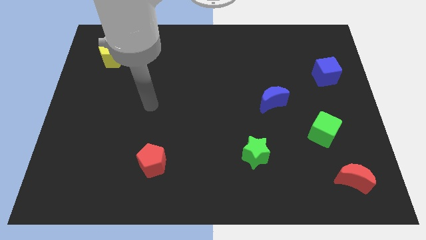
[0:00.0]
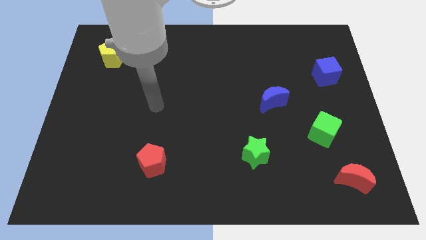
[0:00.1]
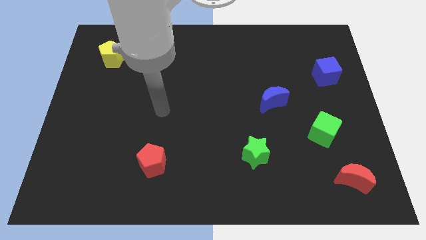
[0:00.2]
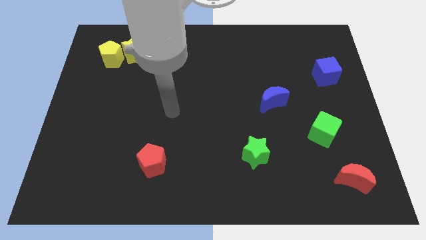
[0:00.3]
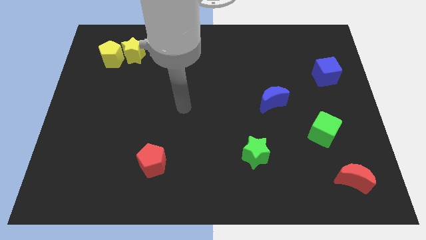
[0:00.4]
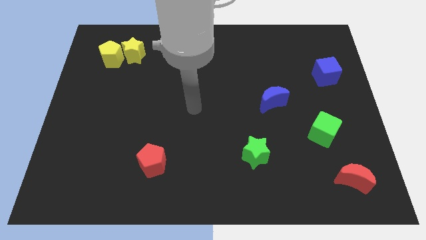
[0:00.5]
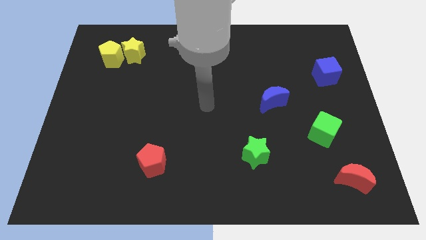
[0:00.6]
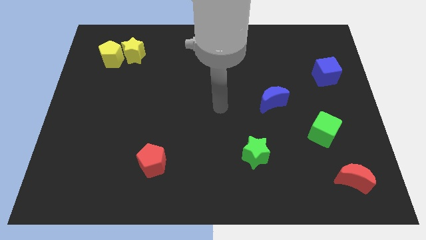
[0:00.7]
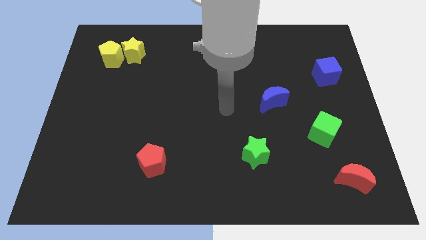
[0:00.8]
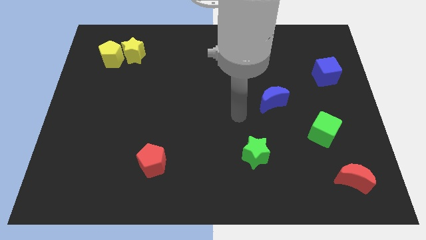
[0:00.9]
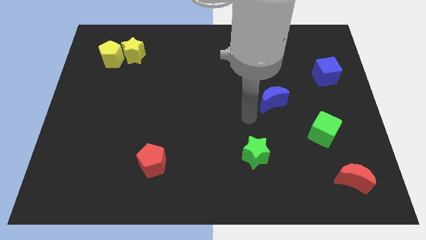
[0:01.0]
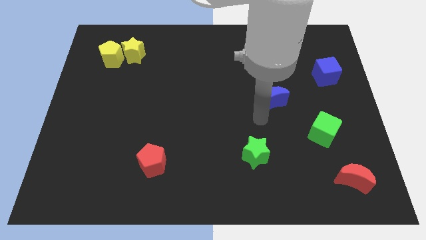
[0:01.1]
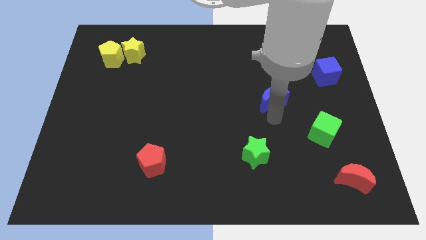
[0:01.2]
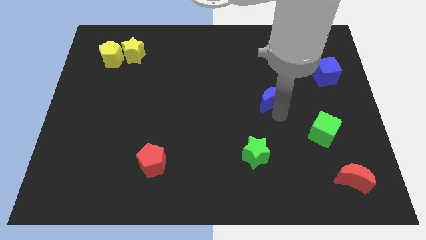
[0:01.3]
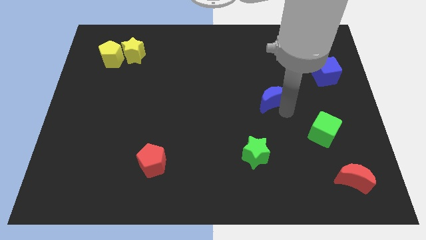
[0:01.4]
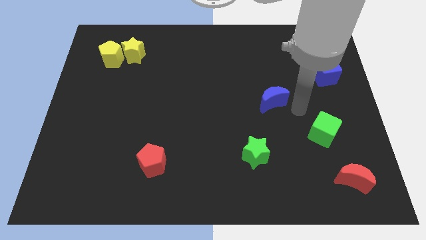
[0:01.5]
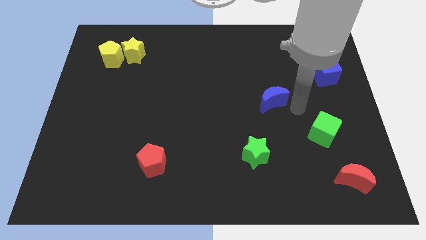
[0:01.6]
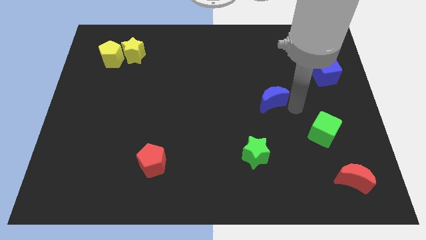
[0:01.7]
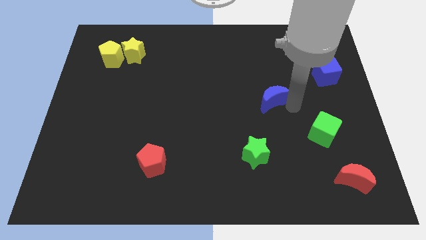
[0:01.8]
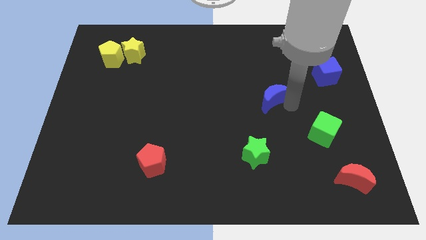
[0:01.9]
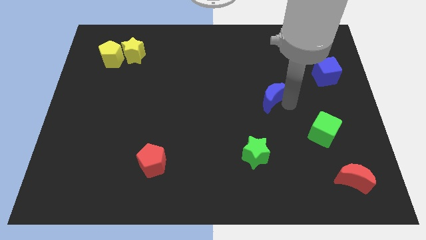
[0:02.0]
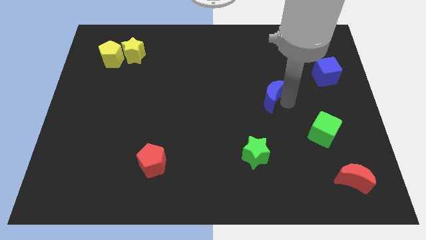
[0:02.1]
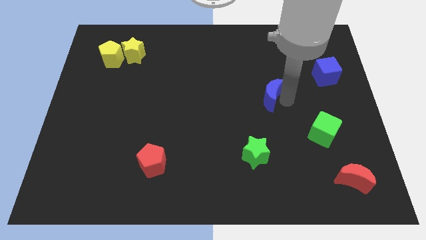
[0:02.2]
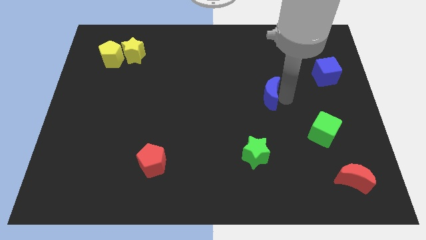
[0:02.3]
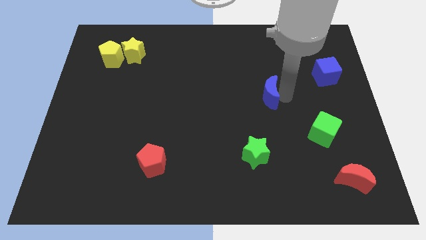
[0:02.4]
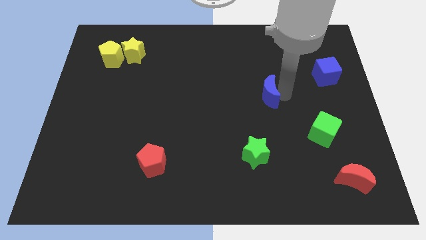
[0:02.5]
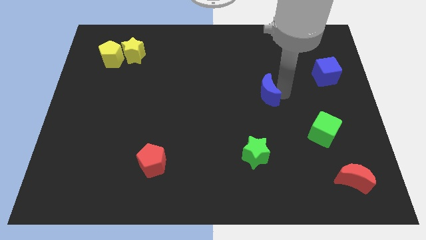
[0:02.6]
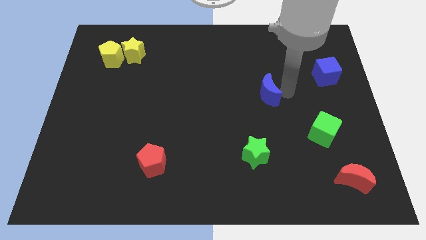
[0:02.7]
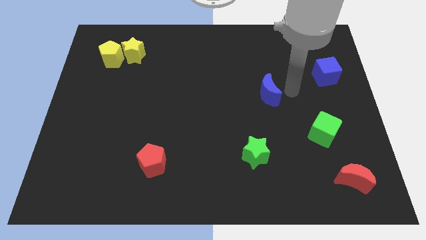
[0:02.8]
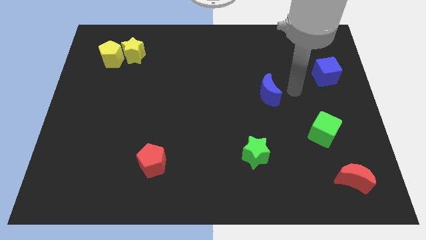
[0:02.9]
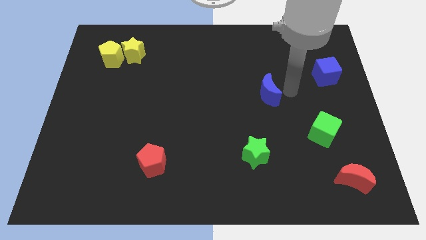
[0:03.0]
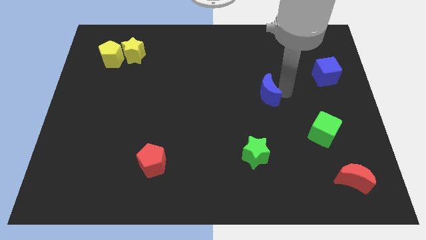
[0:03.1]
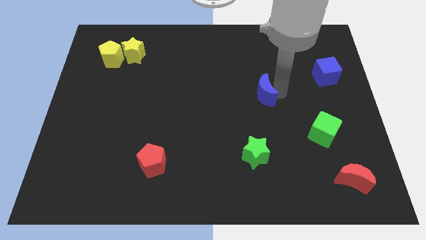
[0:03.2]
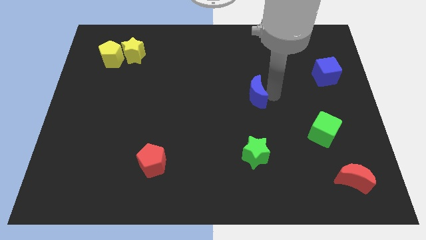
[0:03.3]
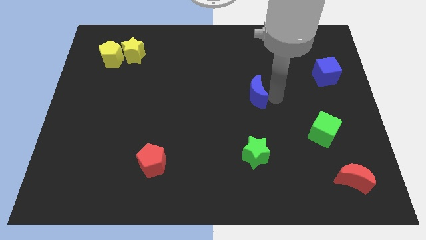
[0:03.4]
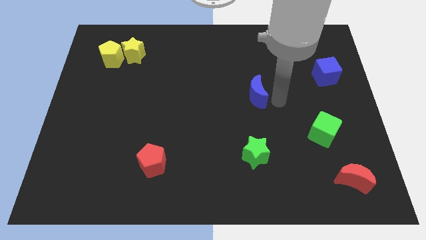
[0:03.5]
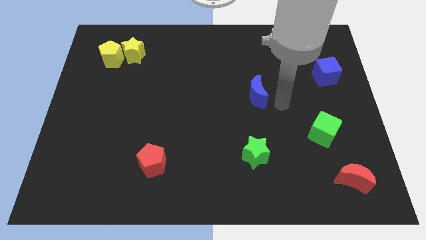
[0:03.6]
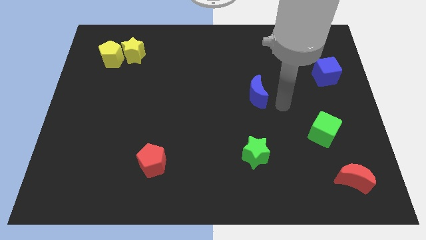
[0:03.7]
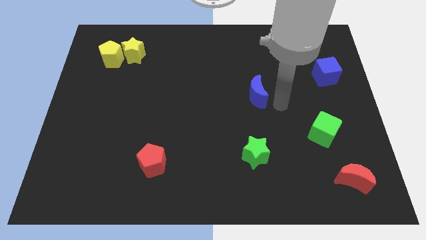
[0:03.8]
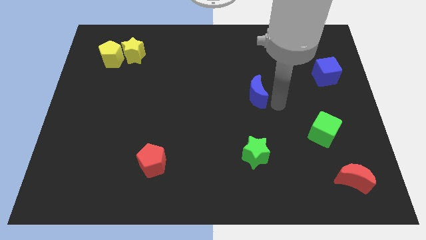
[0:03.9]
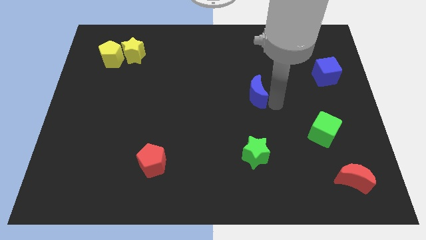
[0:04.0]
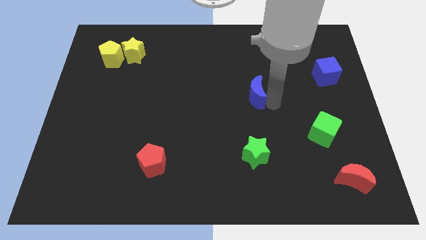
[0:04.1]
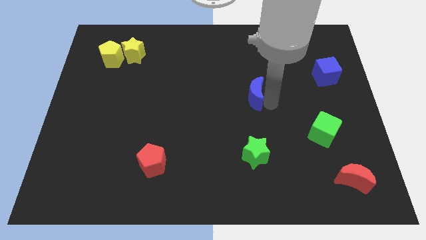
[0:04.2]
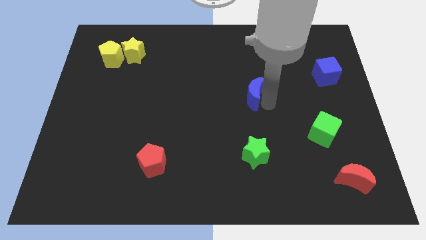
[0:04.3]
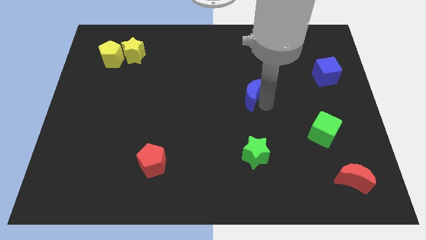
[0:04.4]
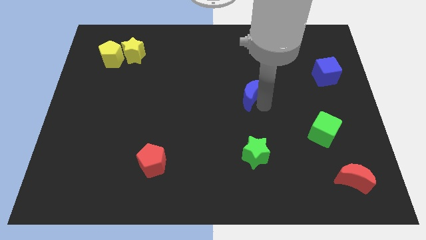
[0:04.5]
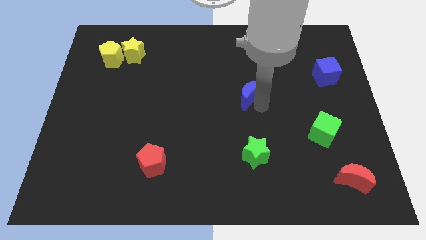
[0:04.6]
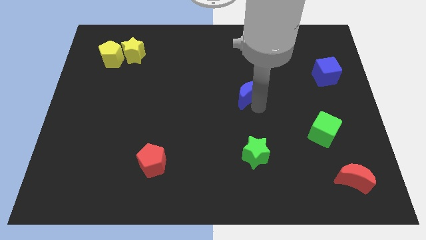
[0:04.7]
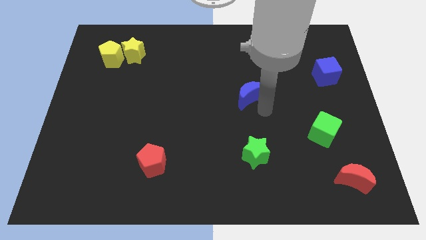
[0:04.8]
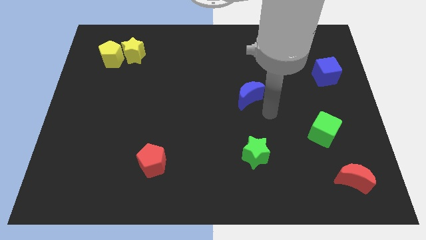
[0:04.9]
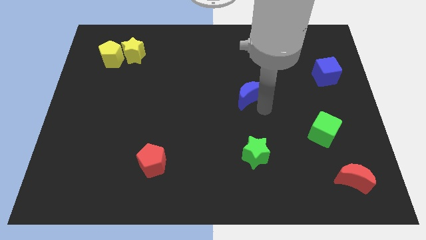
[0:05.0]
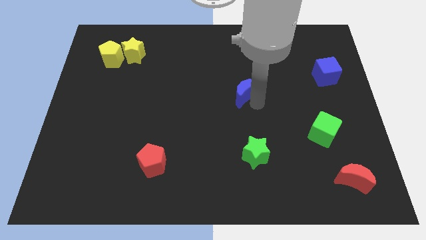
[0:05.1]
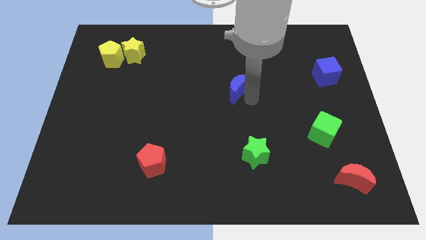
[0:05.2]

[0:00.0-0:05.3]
slightly push the blue moon up and left

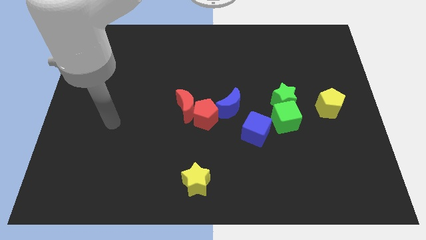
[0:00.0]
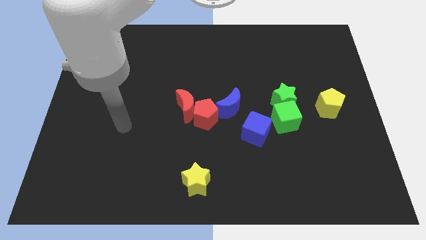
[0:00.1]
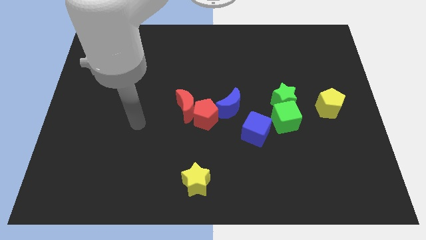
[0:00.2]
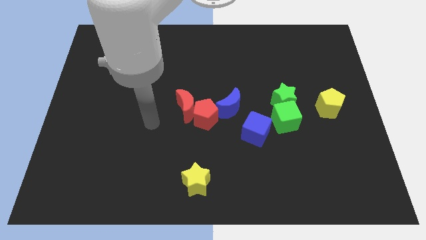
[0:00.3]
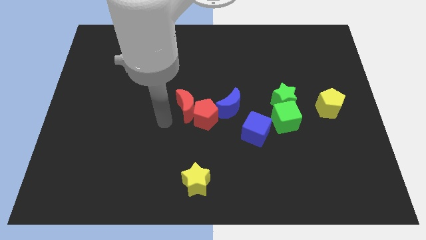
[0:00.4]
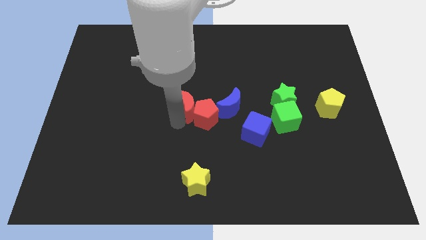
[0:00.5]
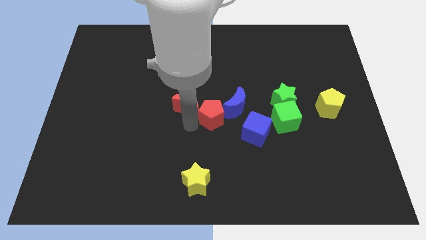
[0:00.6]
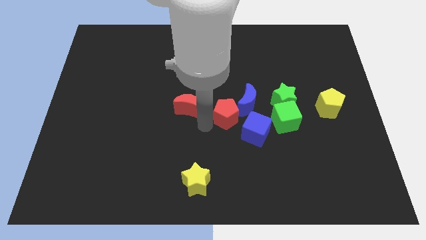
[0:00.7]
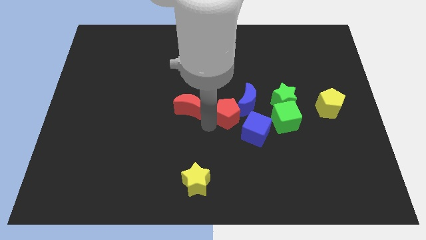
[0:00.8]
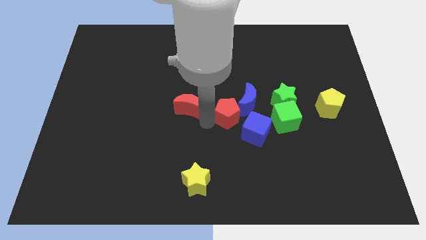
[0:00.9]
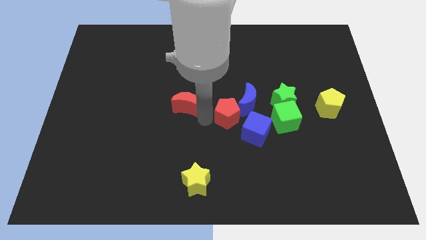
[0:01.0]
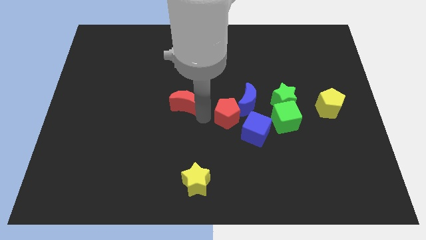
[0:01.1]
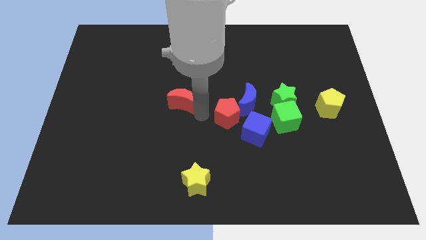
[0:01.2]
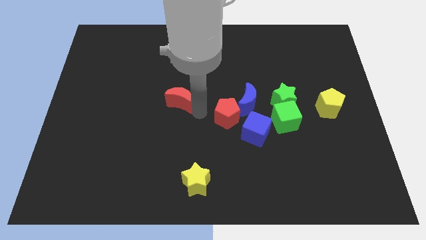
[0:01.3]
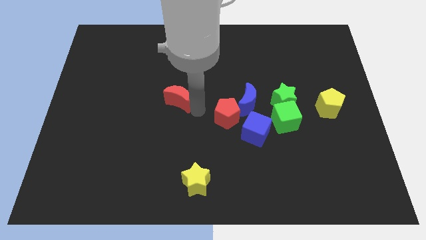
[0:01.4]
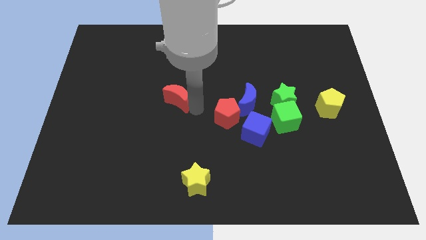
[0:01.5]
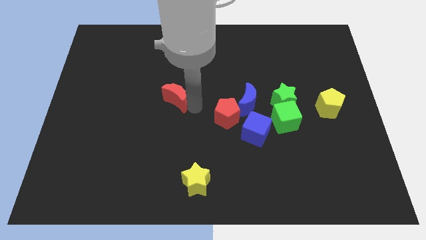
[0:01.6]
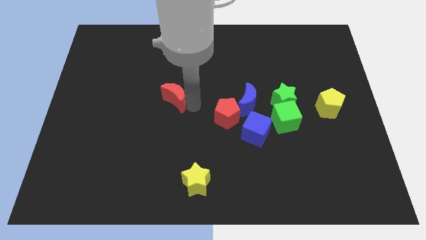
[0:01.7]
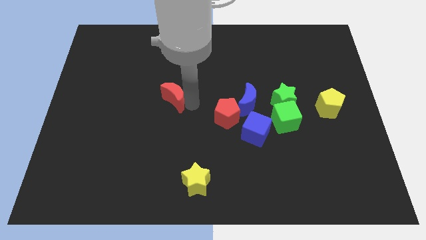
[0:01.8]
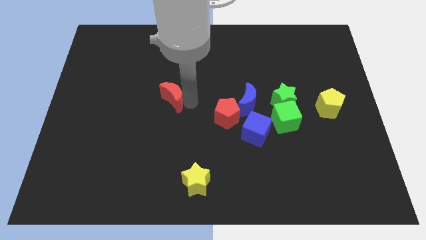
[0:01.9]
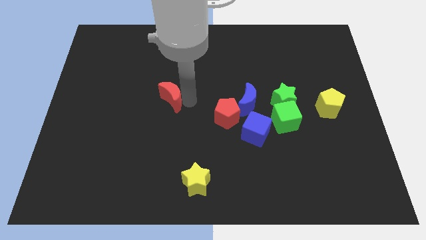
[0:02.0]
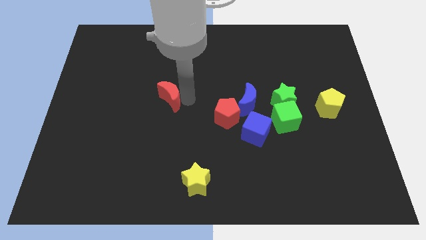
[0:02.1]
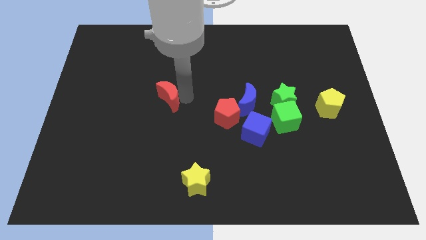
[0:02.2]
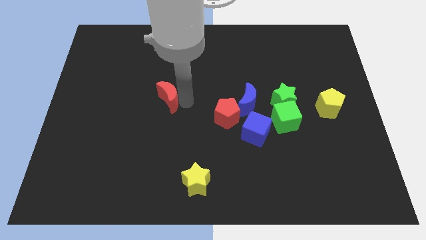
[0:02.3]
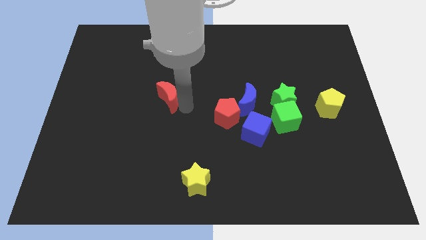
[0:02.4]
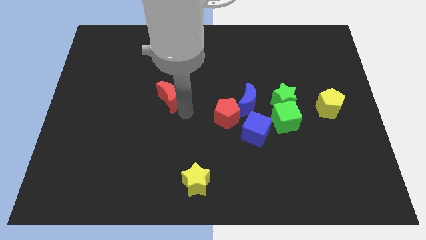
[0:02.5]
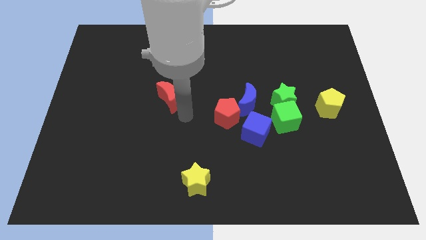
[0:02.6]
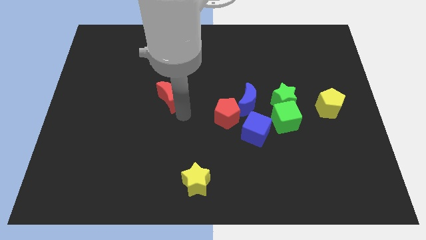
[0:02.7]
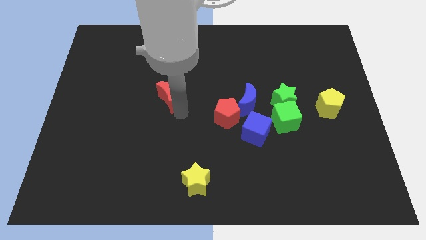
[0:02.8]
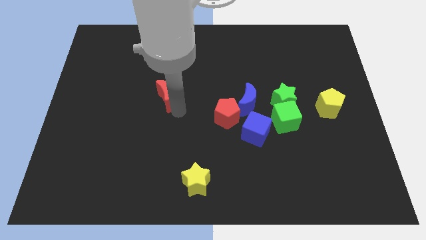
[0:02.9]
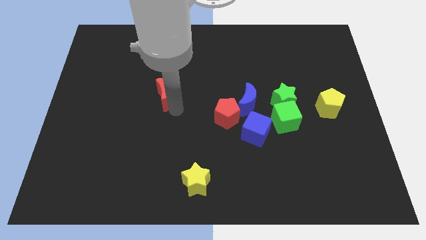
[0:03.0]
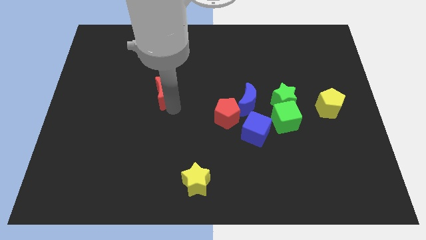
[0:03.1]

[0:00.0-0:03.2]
move the red moon a bit upwards and to the left diagonally
